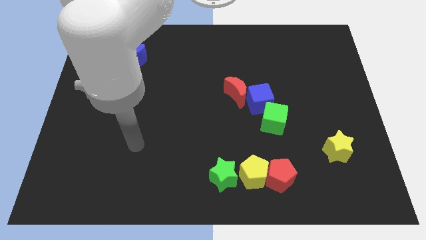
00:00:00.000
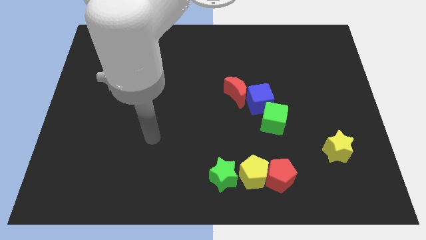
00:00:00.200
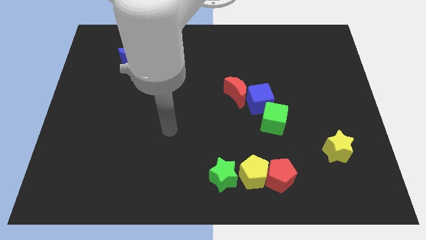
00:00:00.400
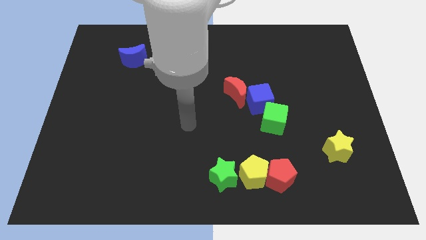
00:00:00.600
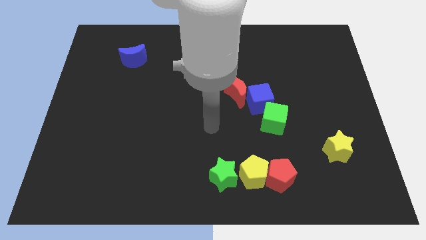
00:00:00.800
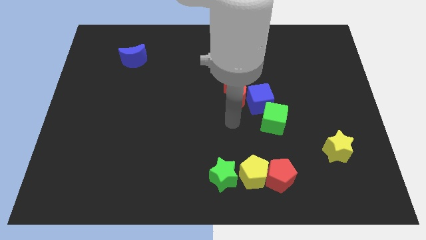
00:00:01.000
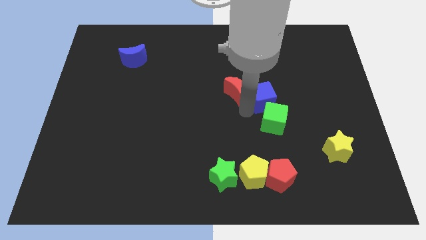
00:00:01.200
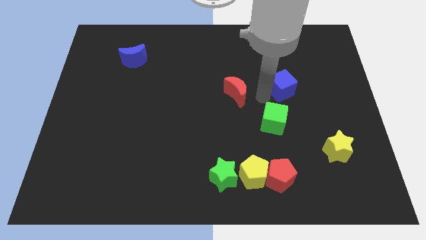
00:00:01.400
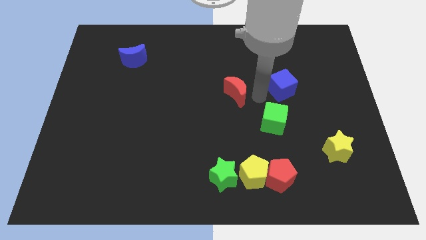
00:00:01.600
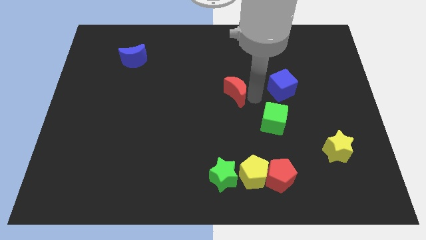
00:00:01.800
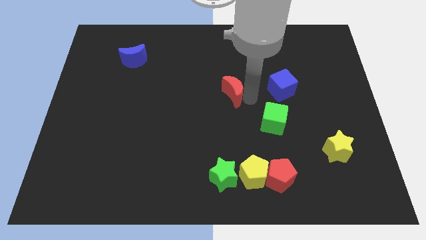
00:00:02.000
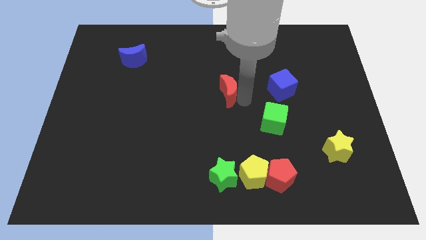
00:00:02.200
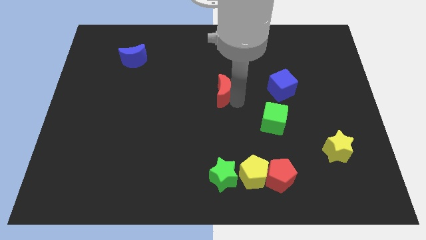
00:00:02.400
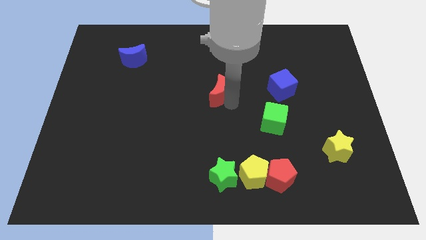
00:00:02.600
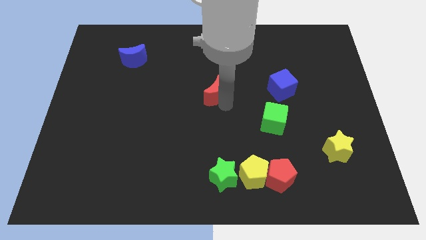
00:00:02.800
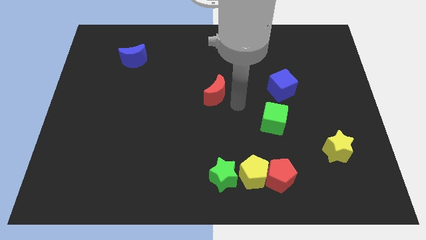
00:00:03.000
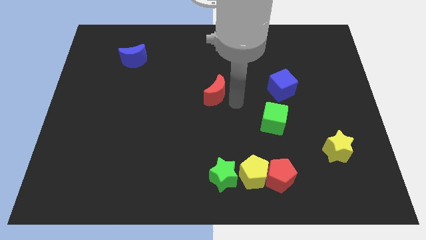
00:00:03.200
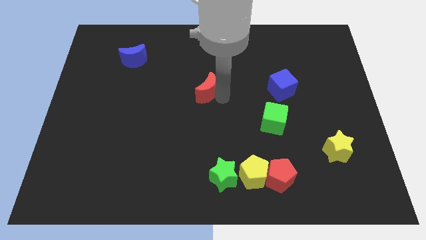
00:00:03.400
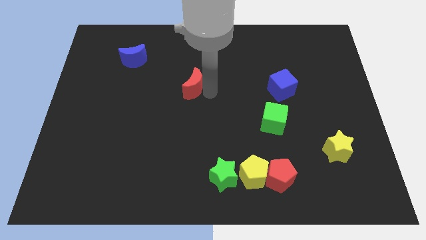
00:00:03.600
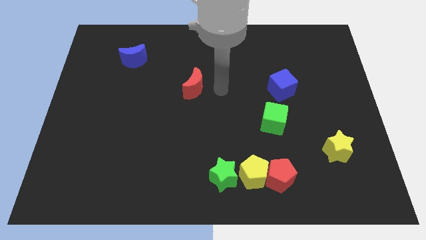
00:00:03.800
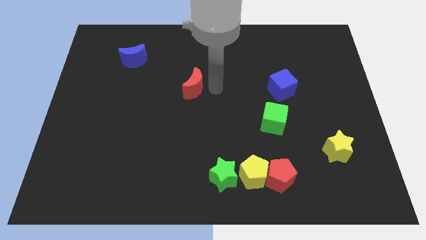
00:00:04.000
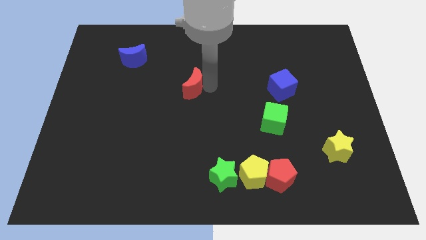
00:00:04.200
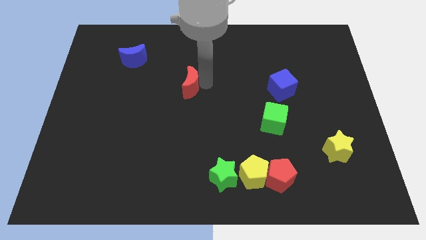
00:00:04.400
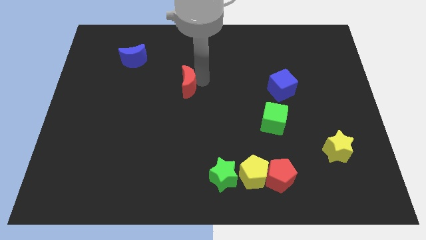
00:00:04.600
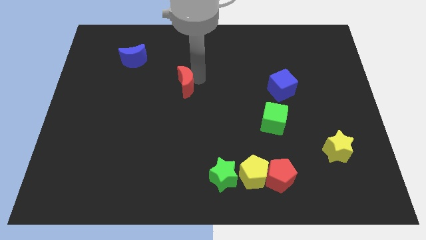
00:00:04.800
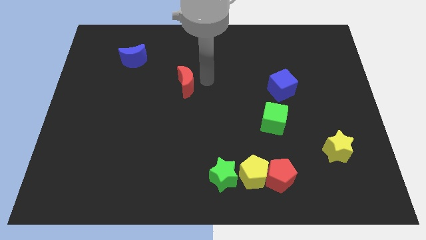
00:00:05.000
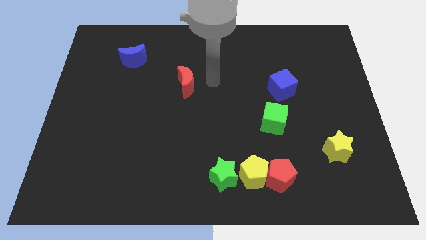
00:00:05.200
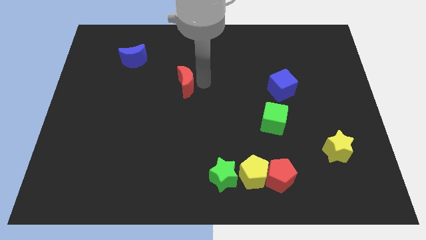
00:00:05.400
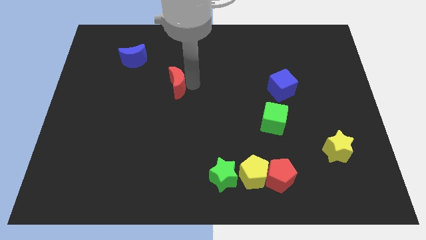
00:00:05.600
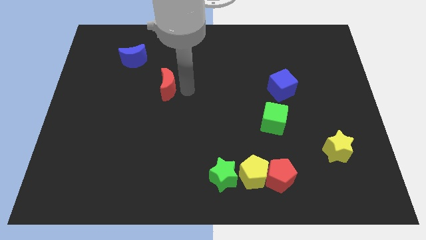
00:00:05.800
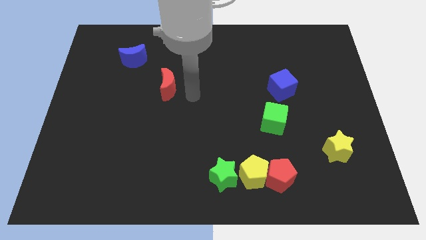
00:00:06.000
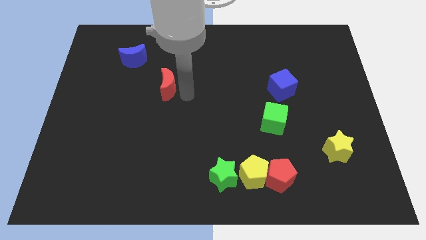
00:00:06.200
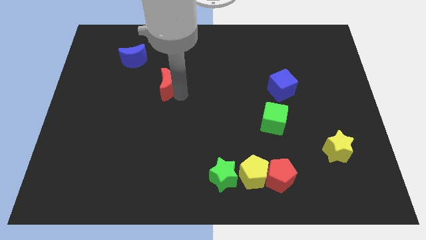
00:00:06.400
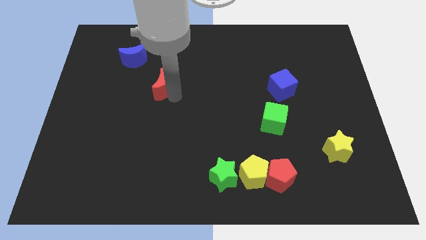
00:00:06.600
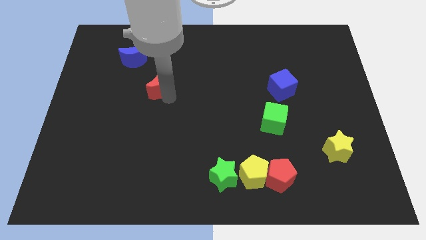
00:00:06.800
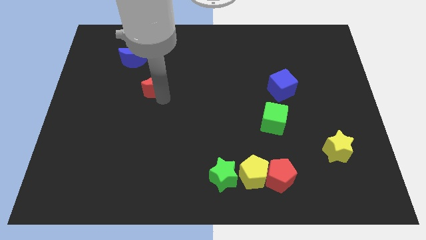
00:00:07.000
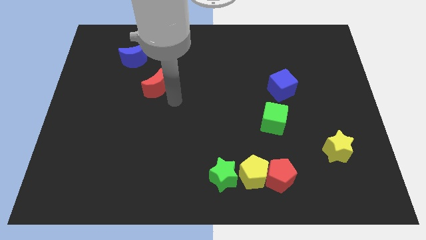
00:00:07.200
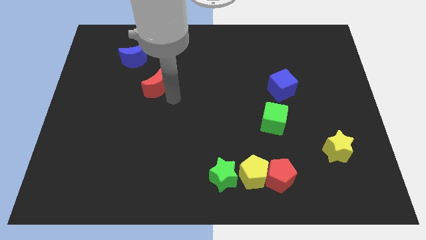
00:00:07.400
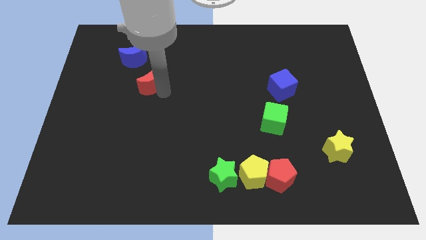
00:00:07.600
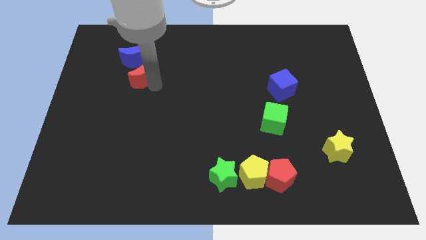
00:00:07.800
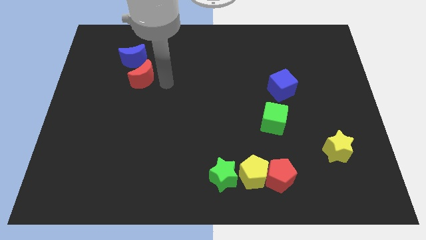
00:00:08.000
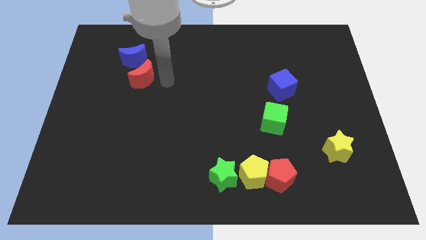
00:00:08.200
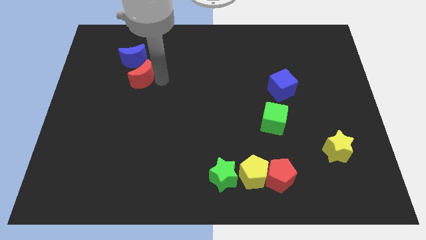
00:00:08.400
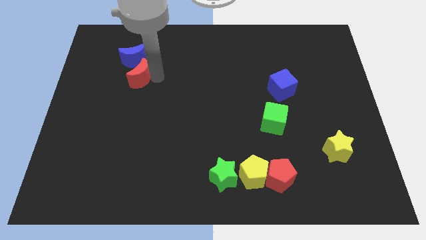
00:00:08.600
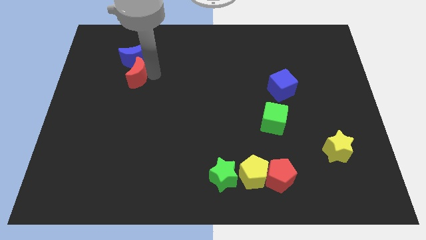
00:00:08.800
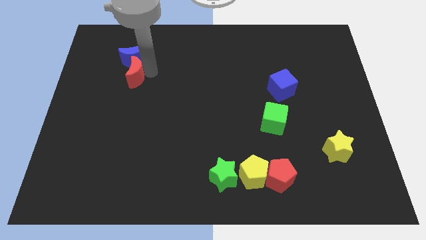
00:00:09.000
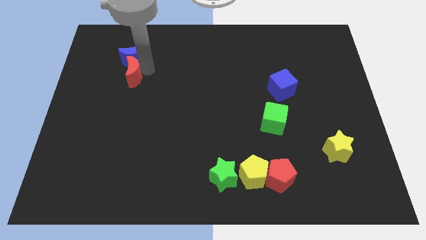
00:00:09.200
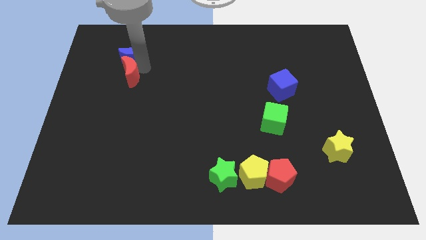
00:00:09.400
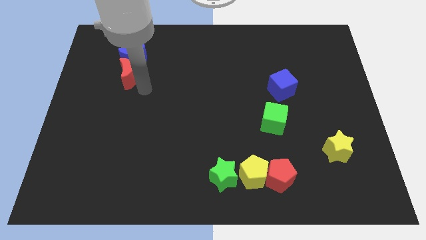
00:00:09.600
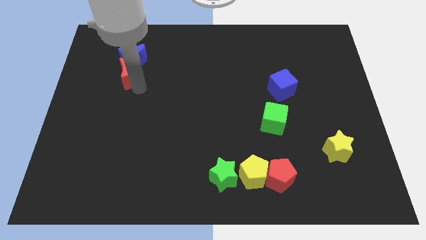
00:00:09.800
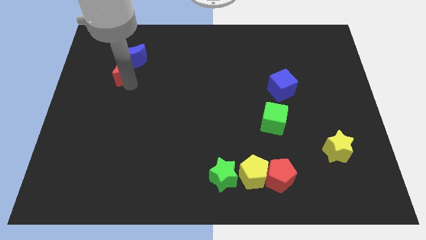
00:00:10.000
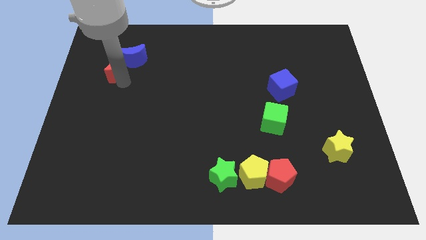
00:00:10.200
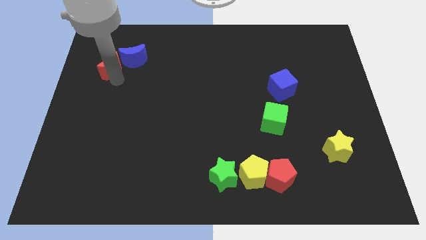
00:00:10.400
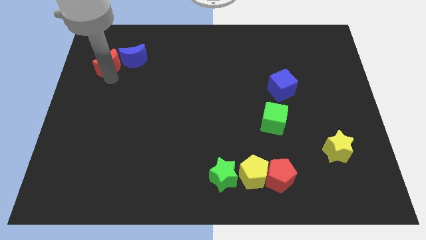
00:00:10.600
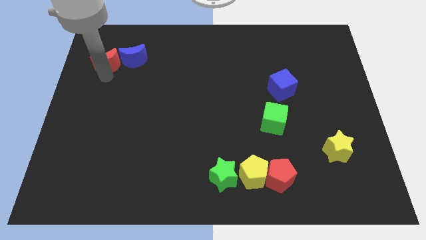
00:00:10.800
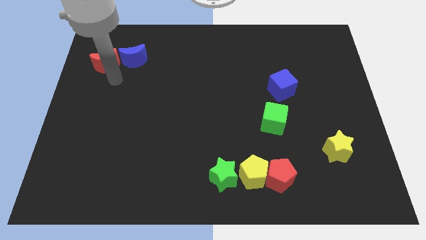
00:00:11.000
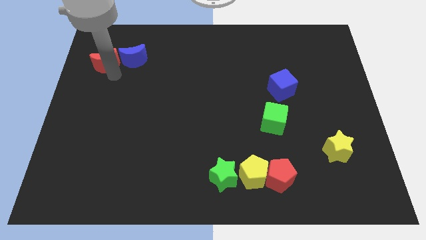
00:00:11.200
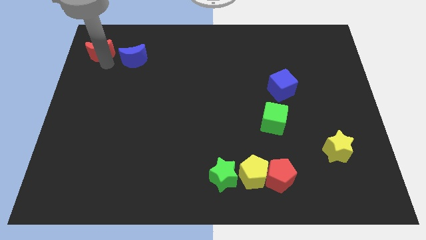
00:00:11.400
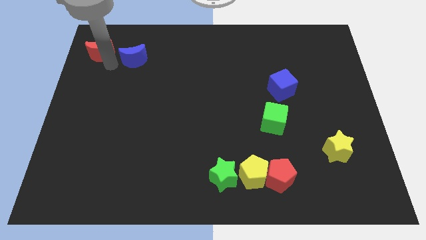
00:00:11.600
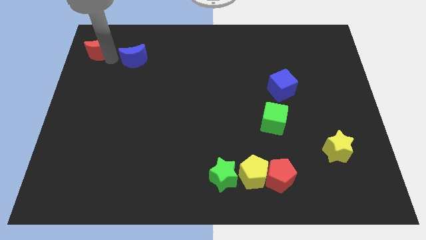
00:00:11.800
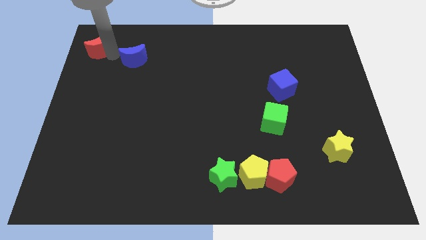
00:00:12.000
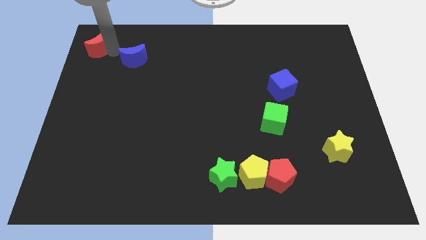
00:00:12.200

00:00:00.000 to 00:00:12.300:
push the red moon to the top left corner

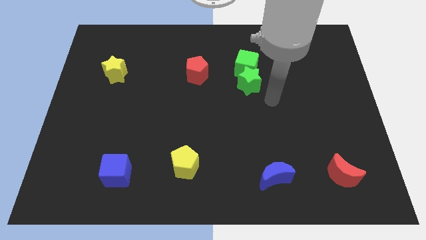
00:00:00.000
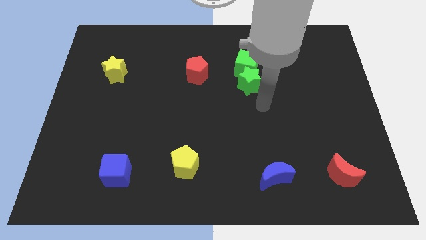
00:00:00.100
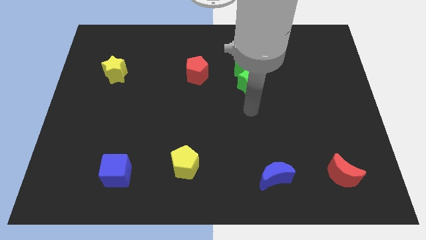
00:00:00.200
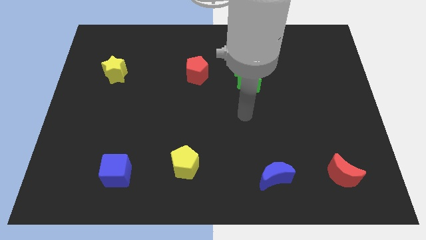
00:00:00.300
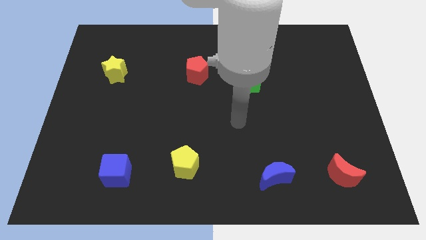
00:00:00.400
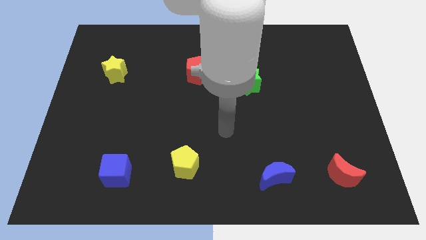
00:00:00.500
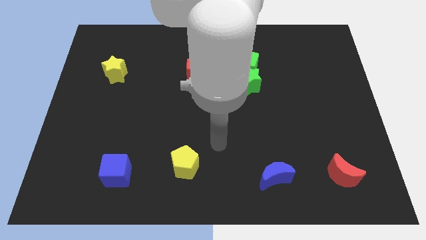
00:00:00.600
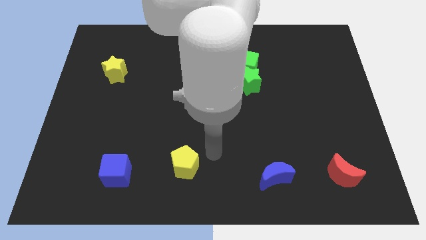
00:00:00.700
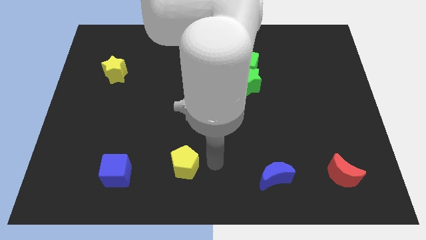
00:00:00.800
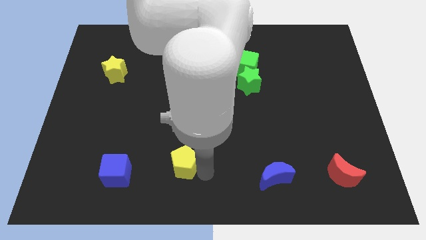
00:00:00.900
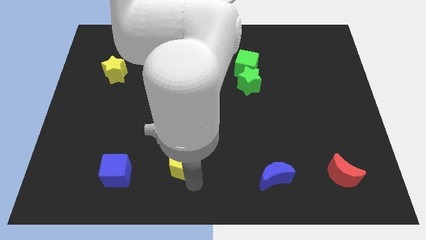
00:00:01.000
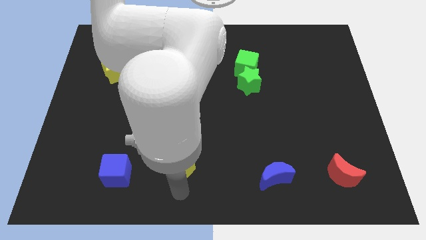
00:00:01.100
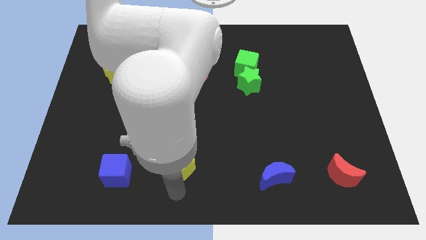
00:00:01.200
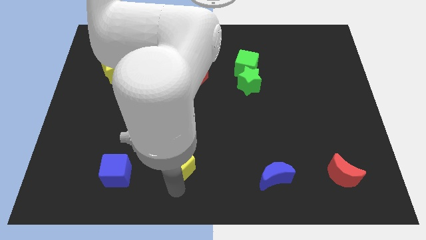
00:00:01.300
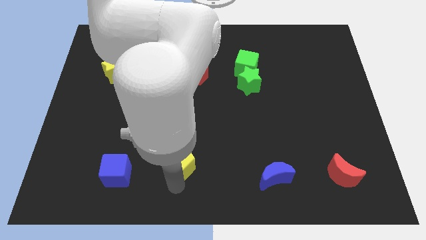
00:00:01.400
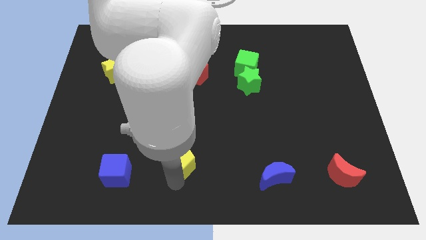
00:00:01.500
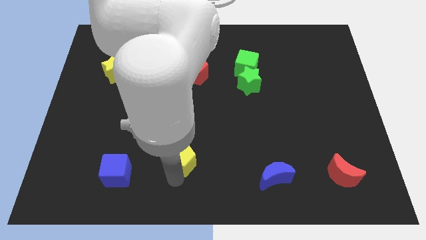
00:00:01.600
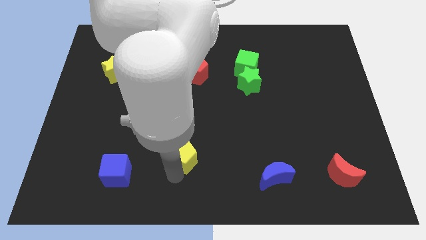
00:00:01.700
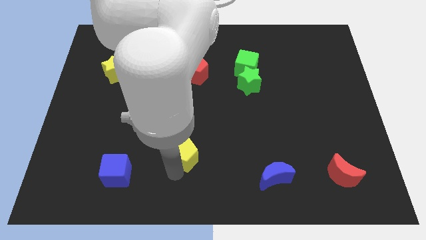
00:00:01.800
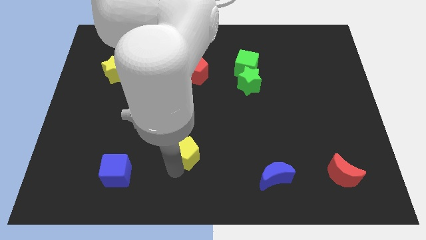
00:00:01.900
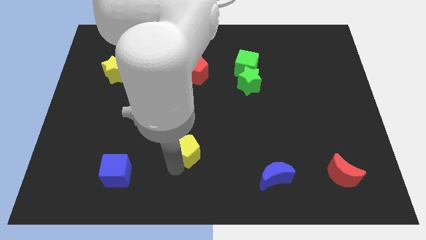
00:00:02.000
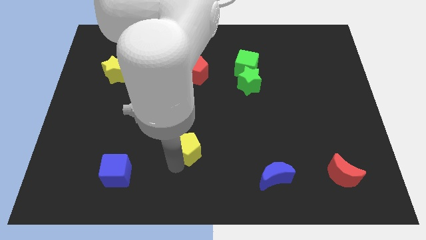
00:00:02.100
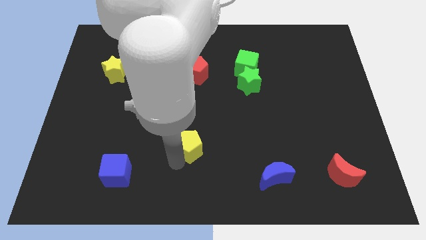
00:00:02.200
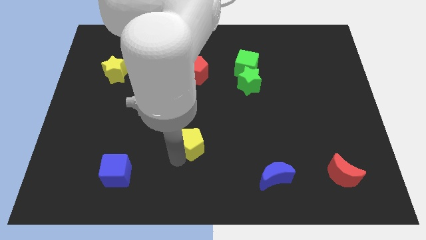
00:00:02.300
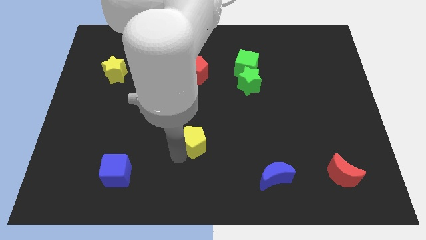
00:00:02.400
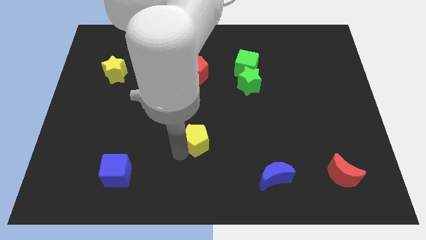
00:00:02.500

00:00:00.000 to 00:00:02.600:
put the yellow pentagon to the center
